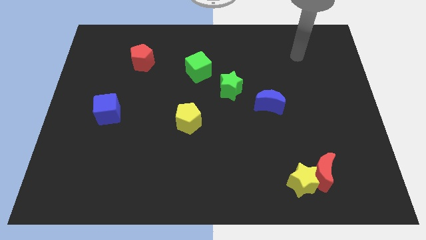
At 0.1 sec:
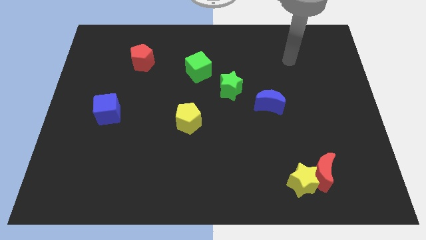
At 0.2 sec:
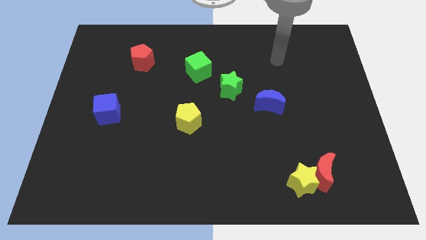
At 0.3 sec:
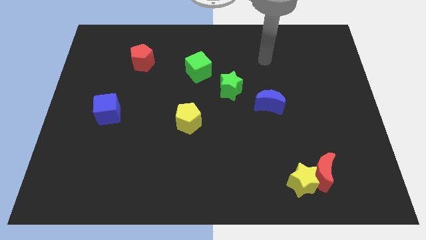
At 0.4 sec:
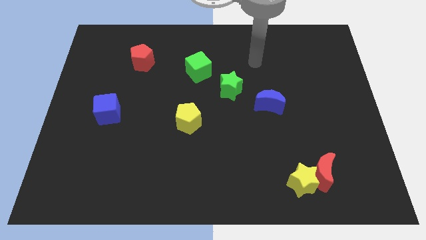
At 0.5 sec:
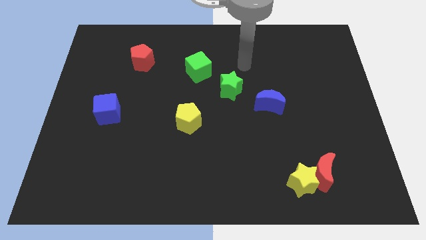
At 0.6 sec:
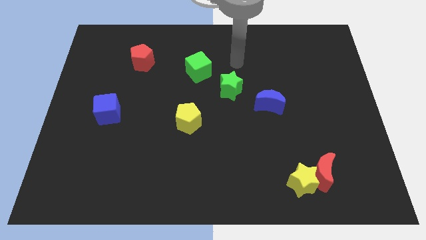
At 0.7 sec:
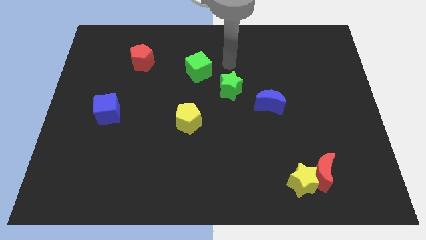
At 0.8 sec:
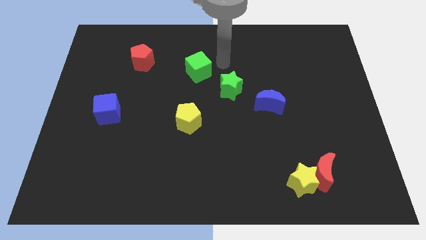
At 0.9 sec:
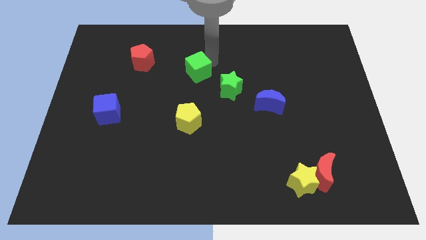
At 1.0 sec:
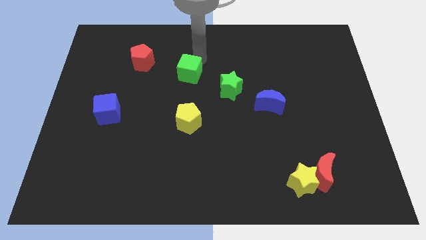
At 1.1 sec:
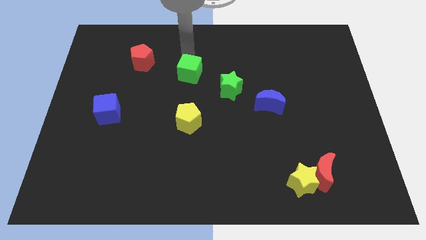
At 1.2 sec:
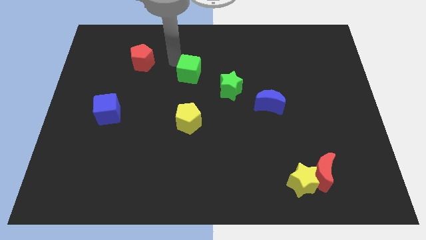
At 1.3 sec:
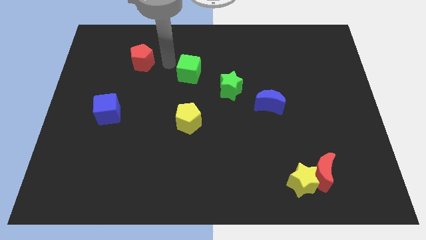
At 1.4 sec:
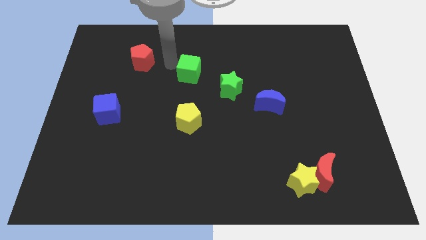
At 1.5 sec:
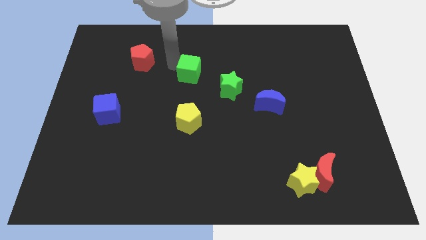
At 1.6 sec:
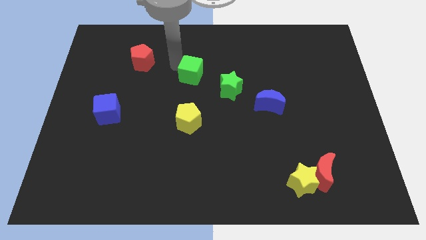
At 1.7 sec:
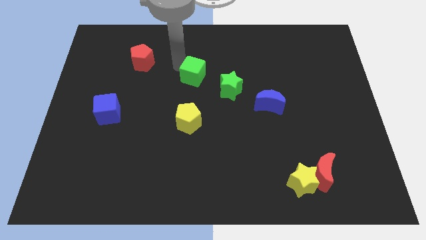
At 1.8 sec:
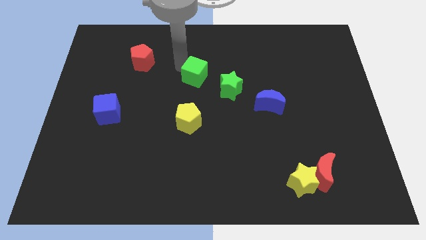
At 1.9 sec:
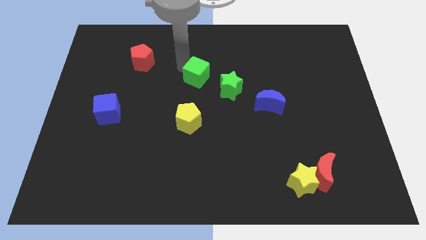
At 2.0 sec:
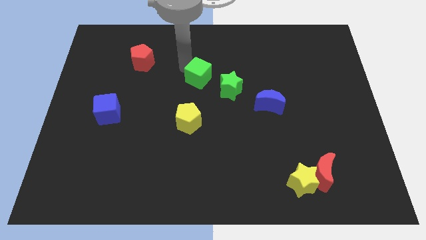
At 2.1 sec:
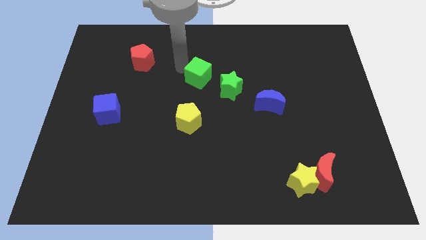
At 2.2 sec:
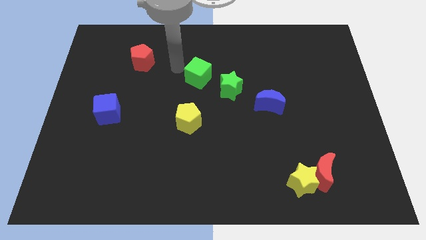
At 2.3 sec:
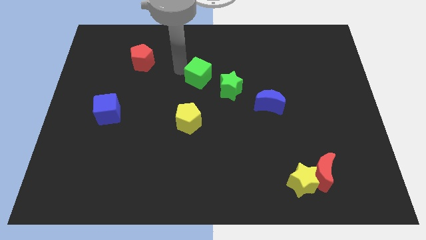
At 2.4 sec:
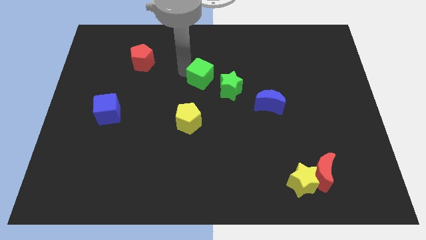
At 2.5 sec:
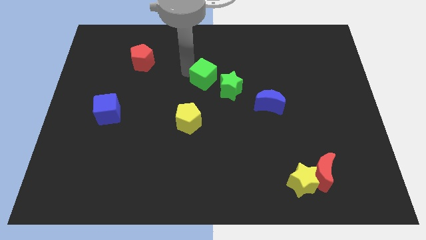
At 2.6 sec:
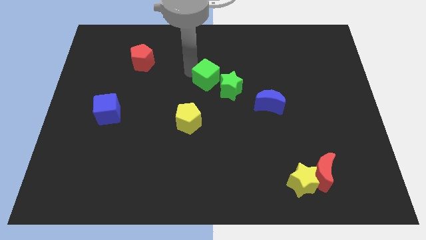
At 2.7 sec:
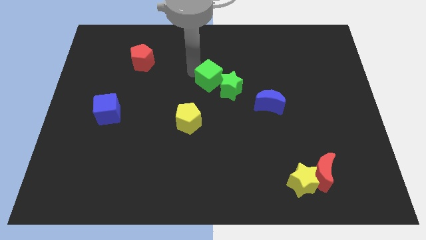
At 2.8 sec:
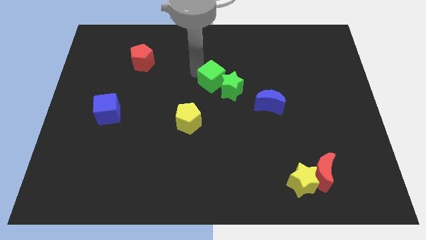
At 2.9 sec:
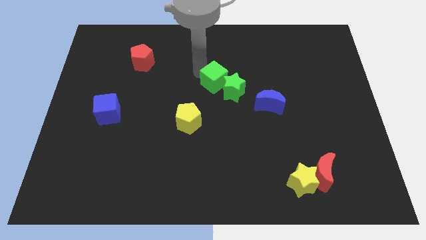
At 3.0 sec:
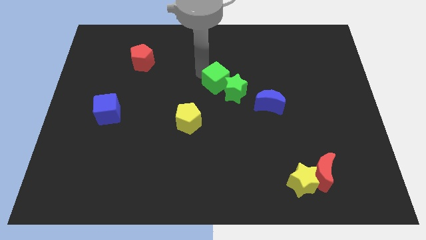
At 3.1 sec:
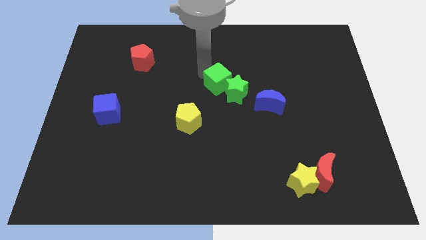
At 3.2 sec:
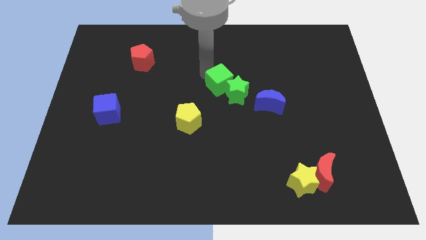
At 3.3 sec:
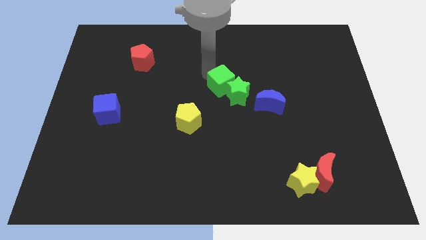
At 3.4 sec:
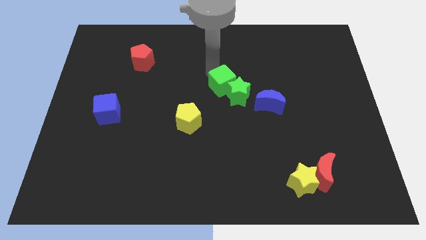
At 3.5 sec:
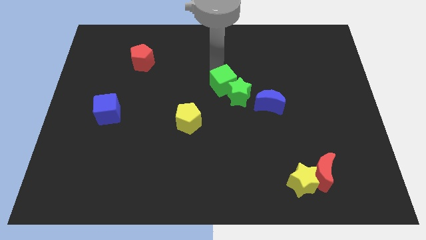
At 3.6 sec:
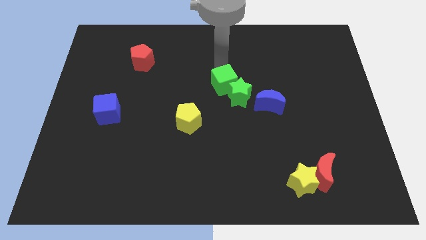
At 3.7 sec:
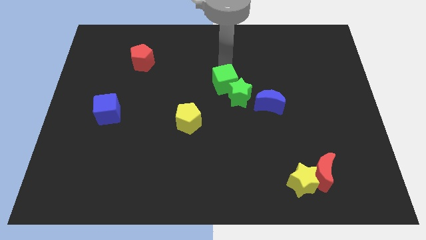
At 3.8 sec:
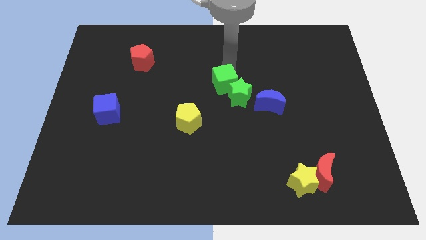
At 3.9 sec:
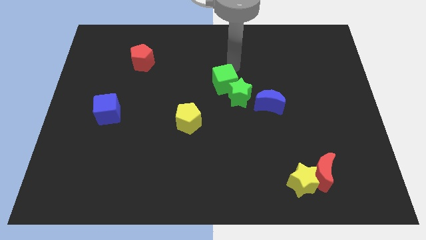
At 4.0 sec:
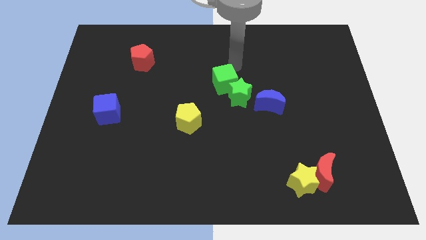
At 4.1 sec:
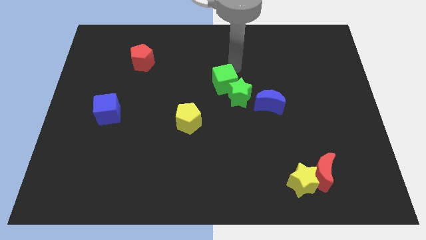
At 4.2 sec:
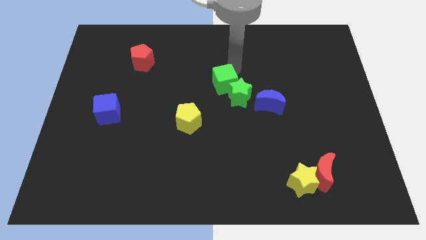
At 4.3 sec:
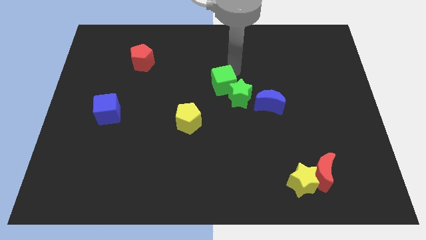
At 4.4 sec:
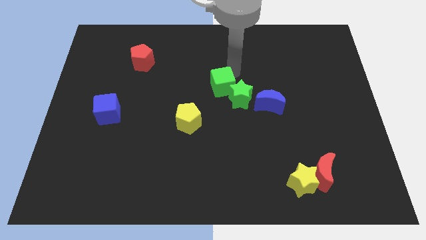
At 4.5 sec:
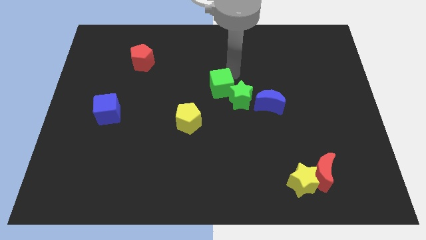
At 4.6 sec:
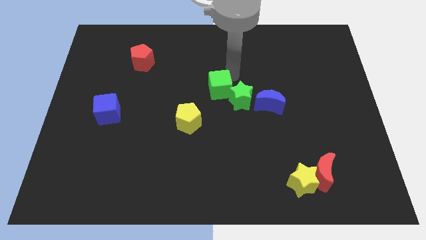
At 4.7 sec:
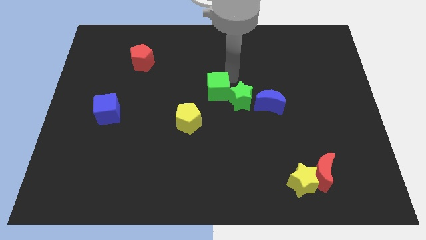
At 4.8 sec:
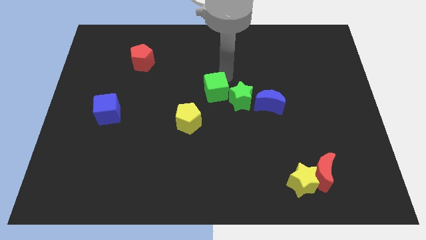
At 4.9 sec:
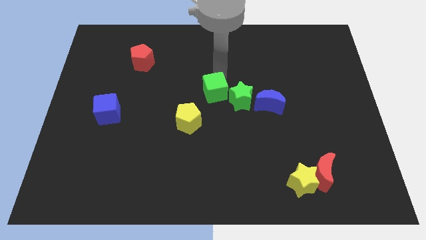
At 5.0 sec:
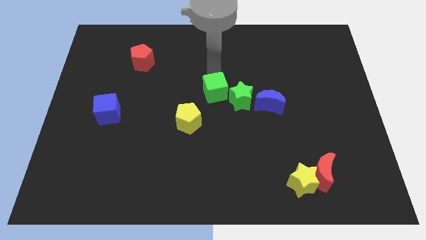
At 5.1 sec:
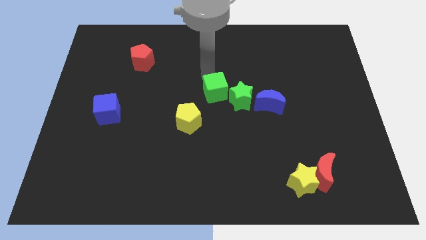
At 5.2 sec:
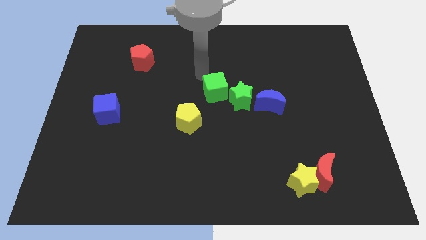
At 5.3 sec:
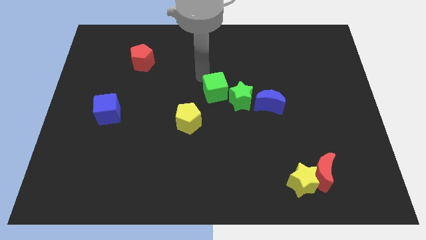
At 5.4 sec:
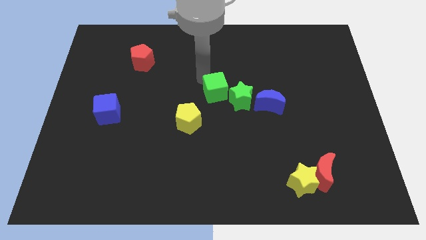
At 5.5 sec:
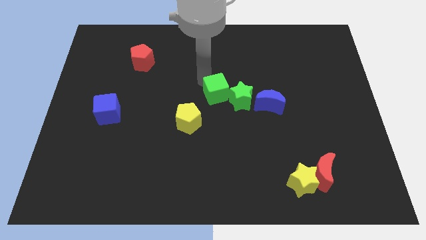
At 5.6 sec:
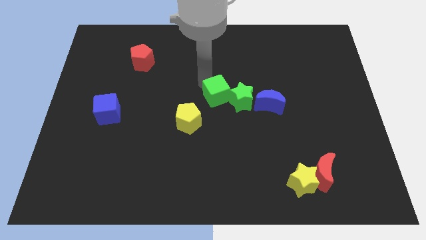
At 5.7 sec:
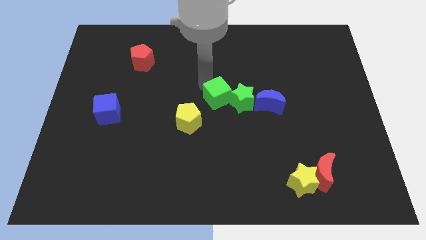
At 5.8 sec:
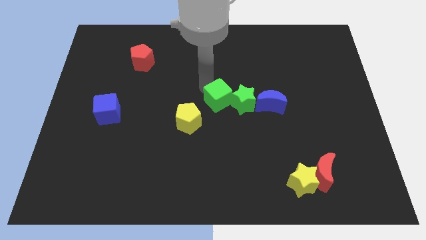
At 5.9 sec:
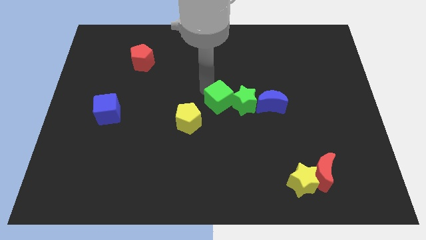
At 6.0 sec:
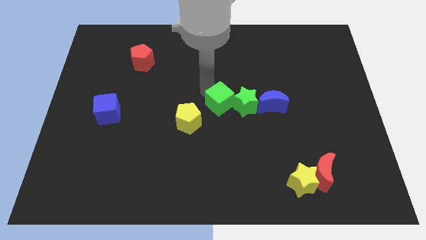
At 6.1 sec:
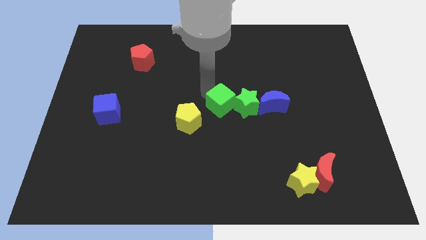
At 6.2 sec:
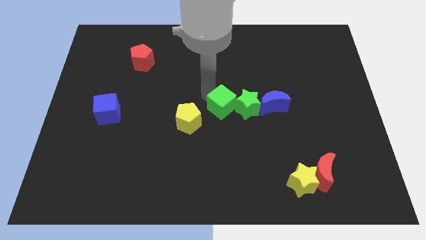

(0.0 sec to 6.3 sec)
push the green cube right of the yellow pentagon

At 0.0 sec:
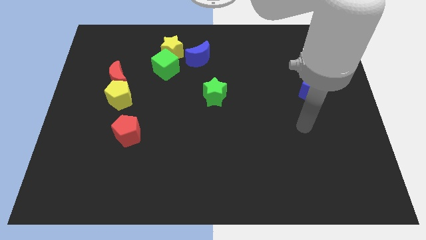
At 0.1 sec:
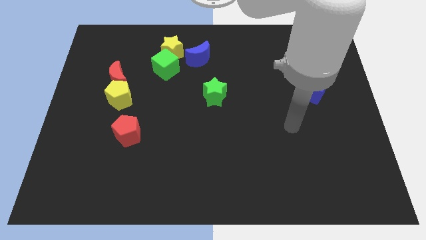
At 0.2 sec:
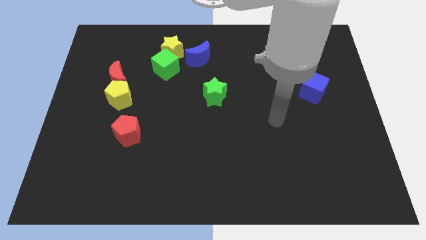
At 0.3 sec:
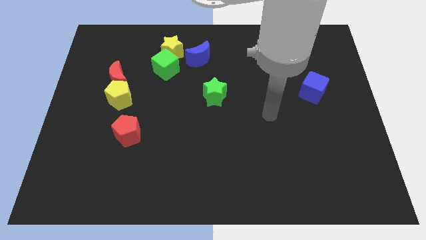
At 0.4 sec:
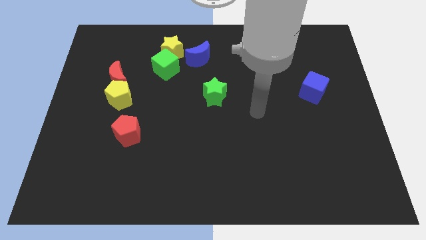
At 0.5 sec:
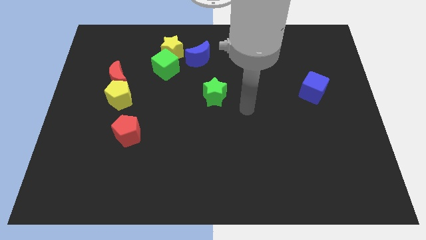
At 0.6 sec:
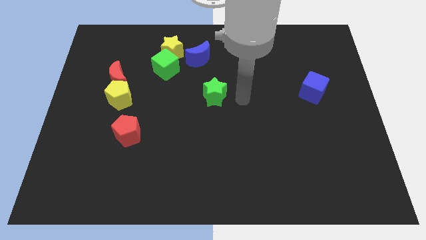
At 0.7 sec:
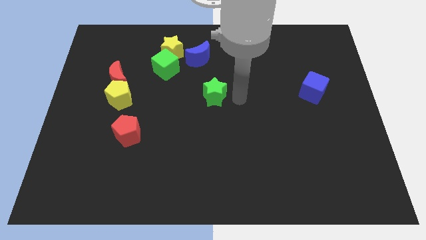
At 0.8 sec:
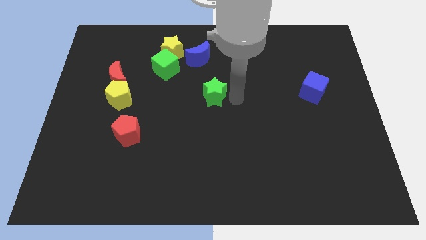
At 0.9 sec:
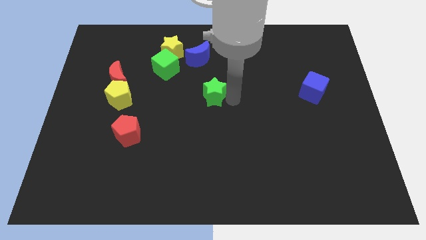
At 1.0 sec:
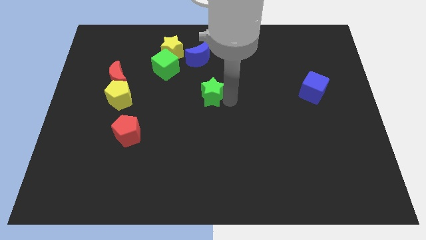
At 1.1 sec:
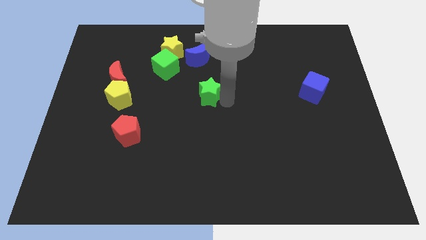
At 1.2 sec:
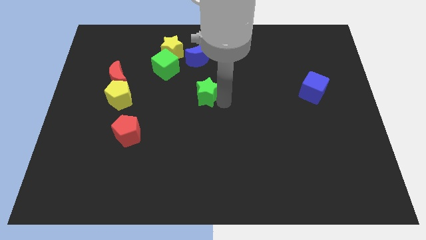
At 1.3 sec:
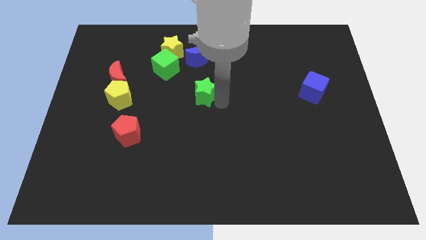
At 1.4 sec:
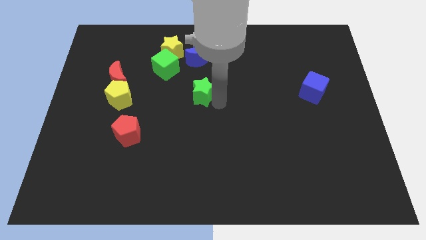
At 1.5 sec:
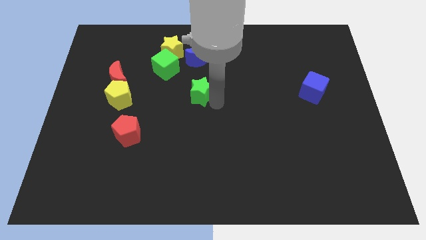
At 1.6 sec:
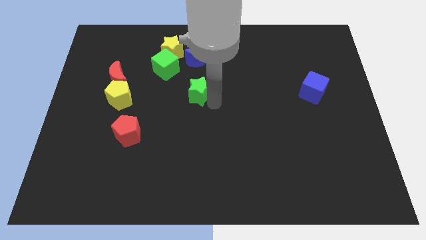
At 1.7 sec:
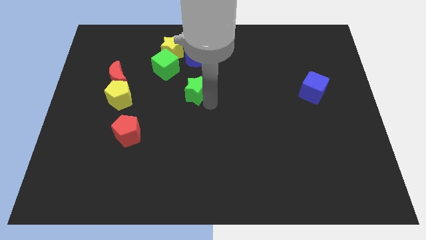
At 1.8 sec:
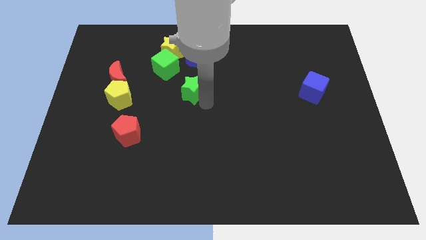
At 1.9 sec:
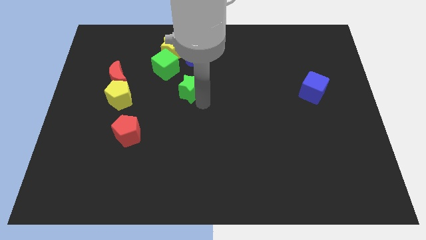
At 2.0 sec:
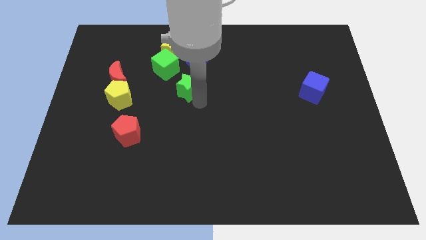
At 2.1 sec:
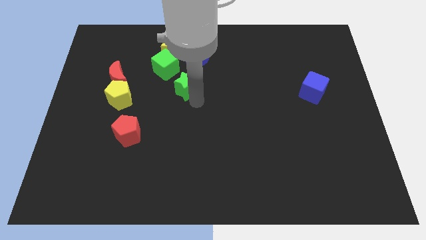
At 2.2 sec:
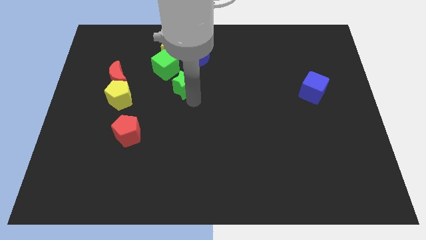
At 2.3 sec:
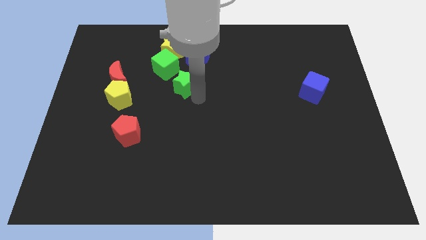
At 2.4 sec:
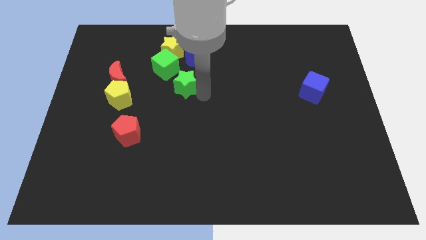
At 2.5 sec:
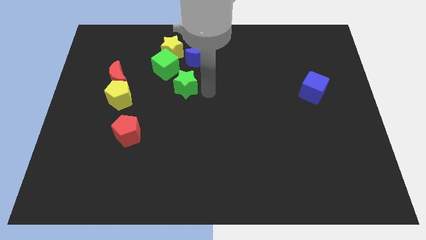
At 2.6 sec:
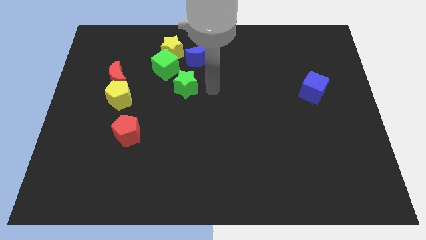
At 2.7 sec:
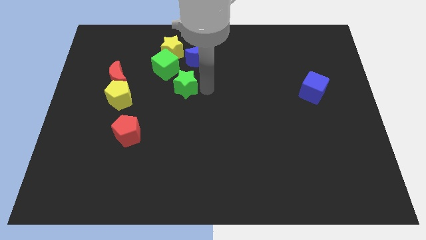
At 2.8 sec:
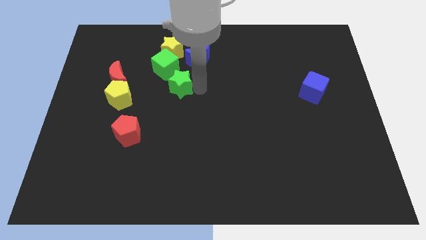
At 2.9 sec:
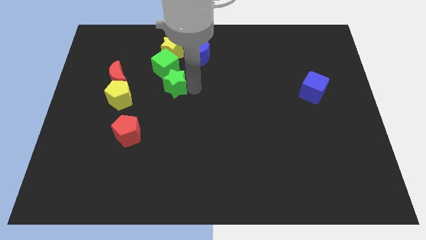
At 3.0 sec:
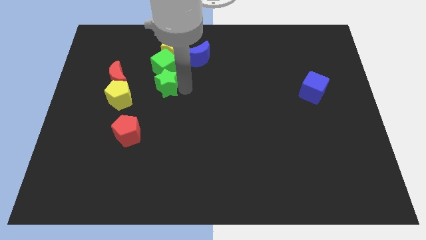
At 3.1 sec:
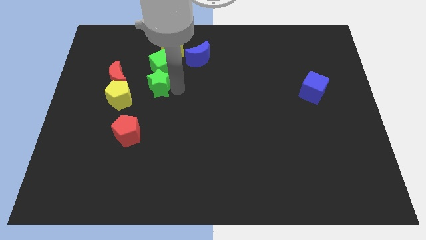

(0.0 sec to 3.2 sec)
push the green star to the top right of the yellow pentagon
